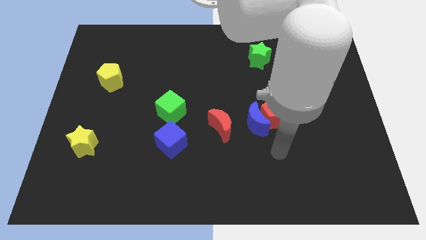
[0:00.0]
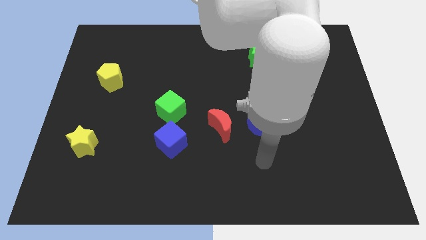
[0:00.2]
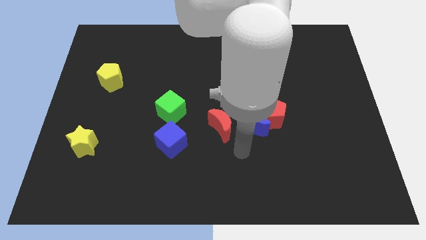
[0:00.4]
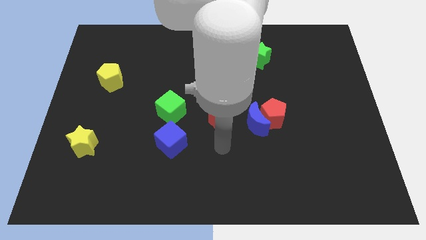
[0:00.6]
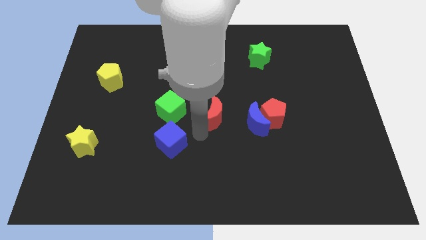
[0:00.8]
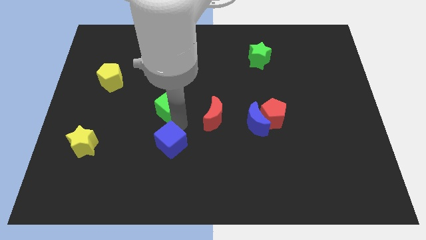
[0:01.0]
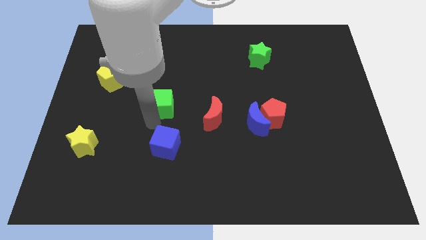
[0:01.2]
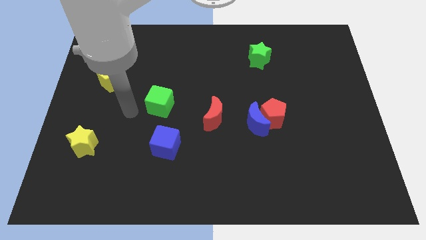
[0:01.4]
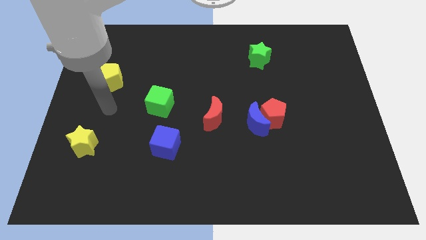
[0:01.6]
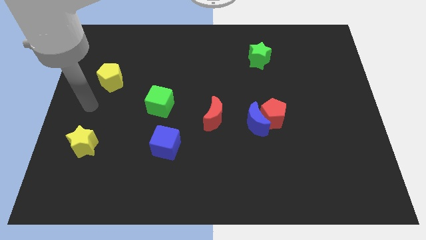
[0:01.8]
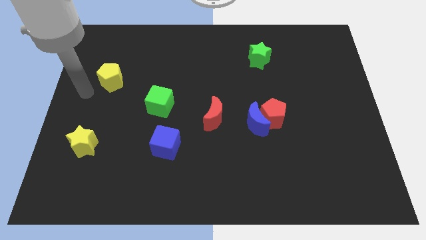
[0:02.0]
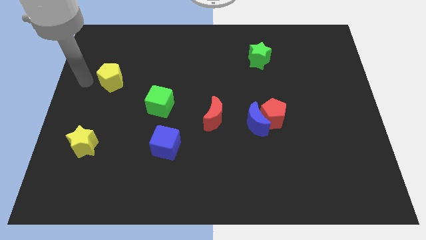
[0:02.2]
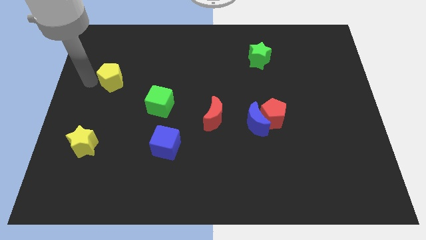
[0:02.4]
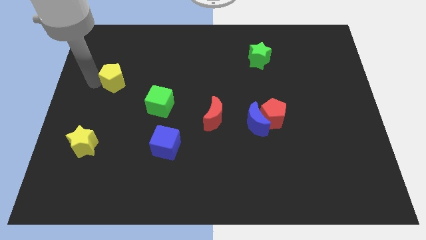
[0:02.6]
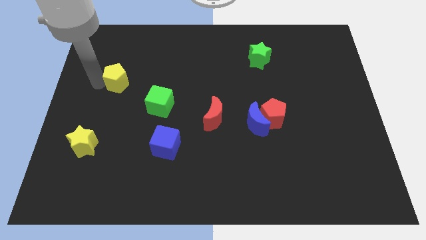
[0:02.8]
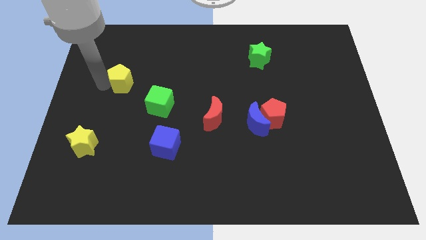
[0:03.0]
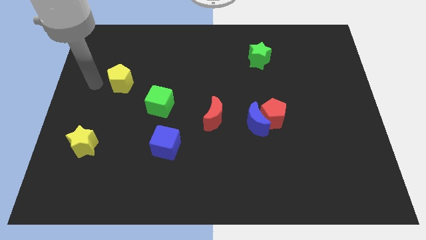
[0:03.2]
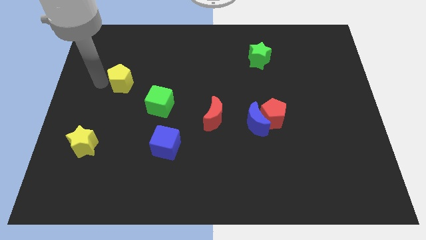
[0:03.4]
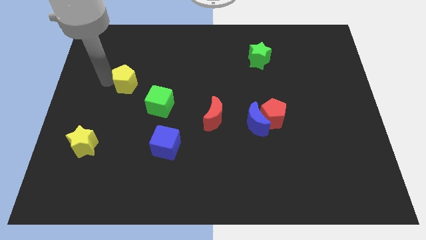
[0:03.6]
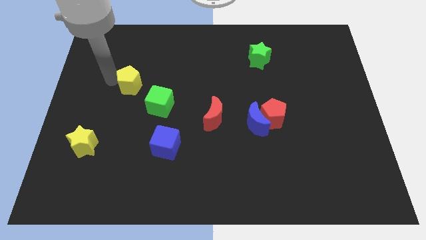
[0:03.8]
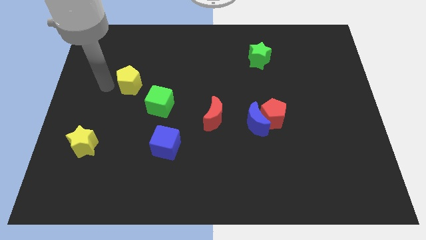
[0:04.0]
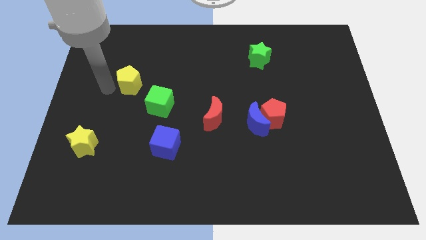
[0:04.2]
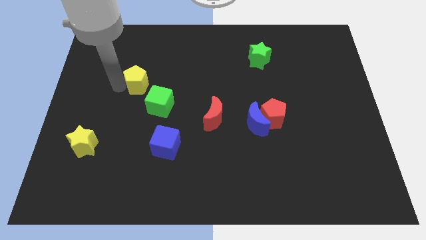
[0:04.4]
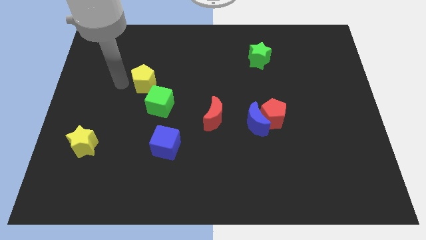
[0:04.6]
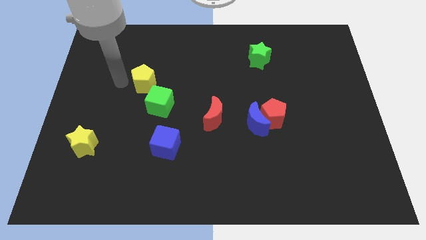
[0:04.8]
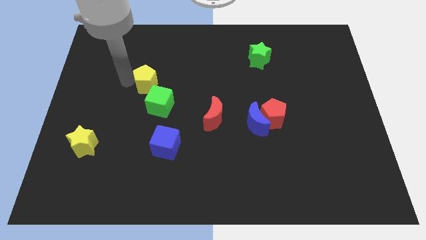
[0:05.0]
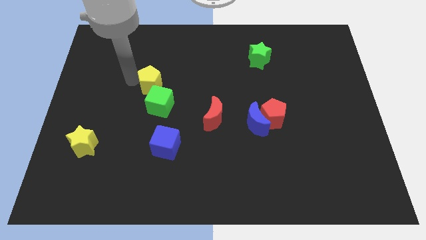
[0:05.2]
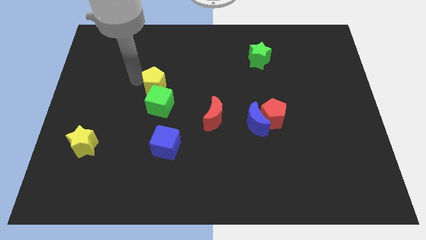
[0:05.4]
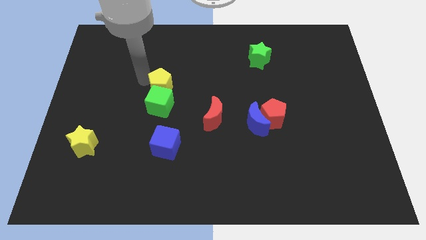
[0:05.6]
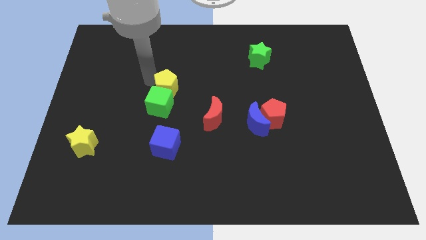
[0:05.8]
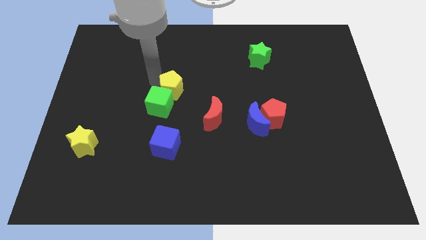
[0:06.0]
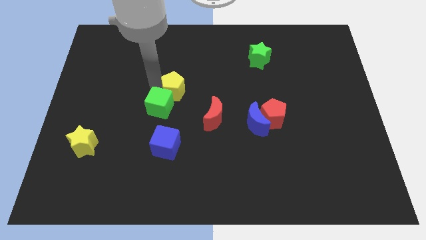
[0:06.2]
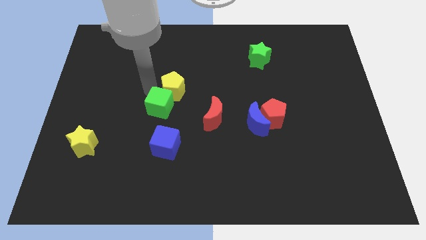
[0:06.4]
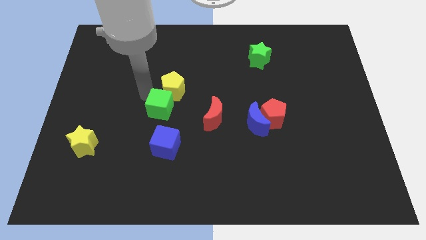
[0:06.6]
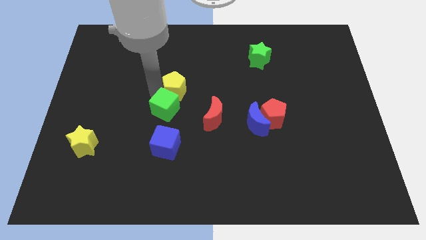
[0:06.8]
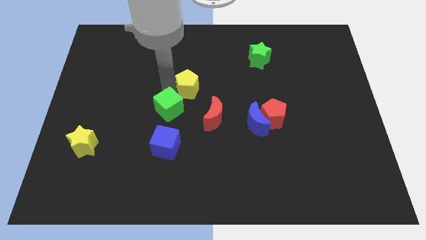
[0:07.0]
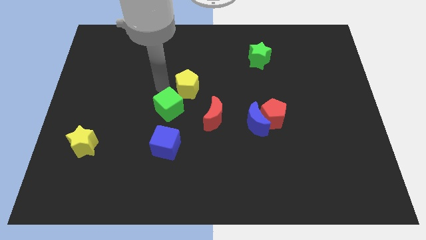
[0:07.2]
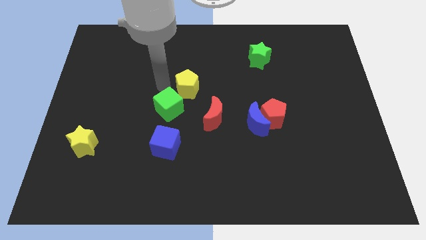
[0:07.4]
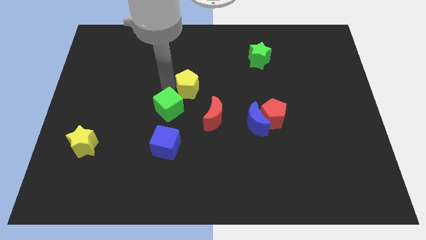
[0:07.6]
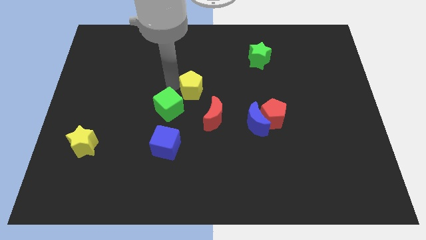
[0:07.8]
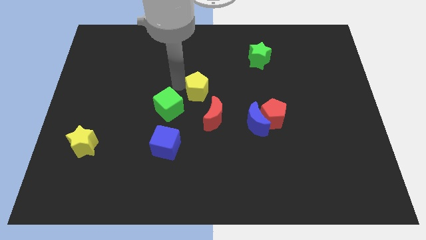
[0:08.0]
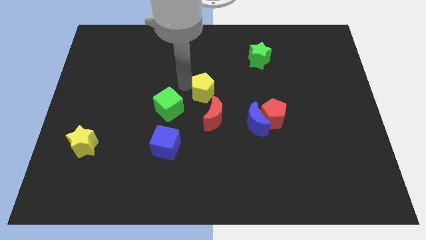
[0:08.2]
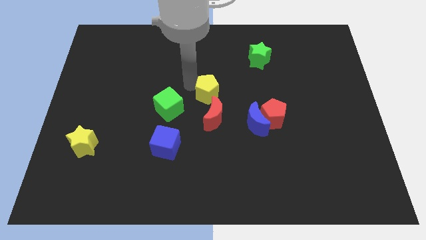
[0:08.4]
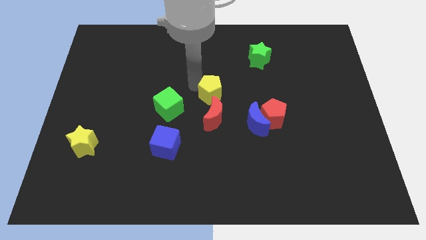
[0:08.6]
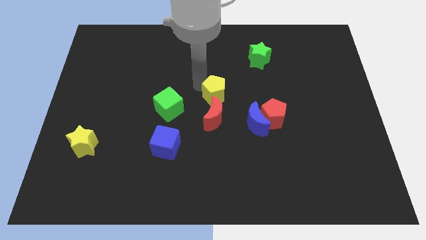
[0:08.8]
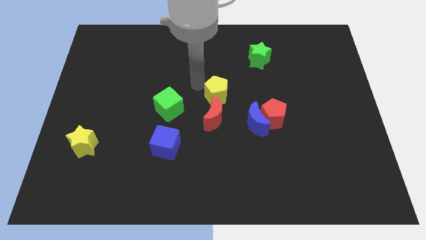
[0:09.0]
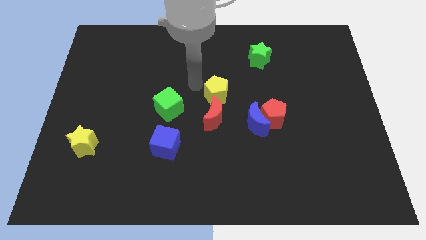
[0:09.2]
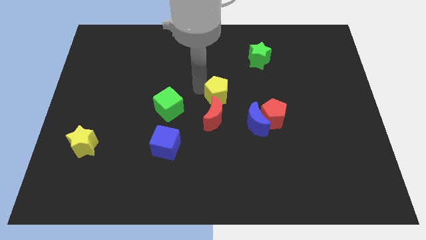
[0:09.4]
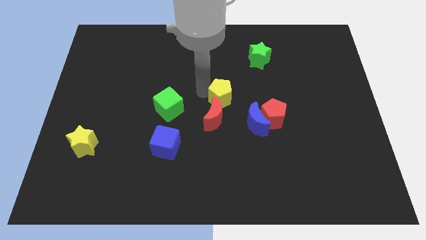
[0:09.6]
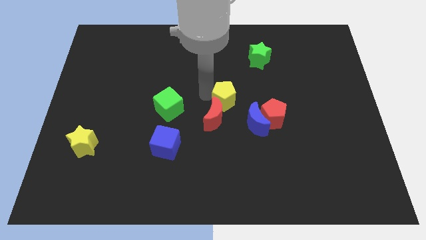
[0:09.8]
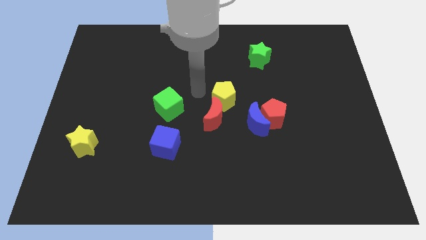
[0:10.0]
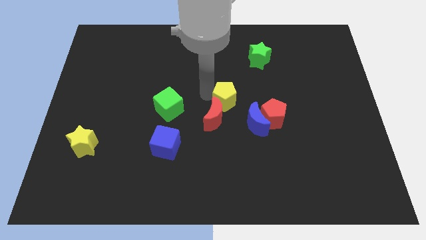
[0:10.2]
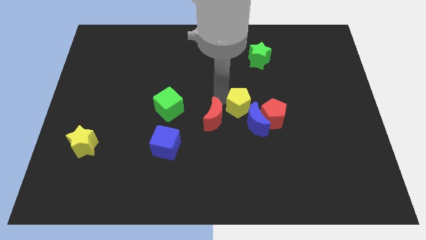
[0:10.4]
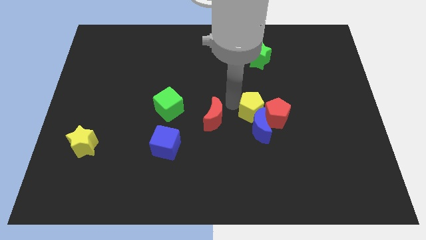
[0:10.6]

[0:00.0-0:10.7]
push the yellow pentagon to the red pentagon

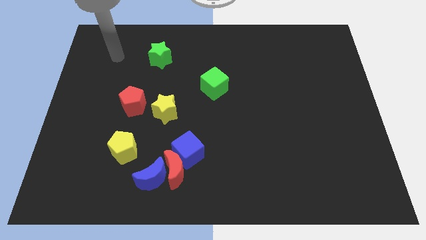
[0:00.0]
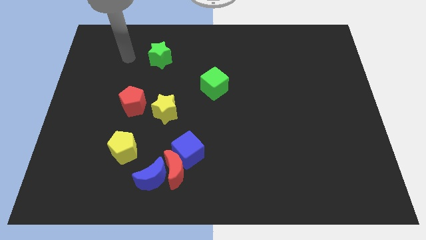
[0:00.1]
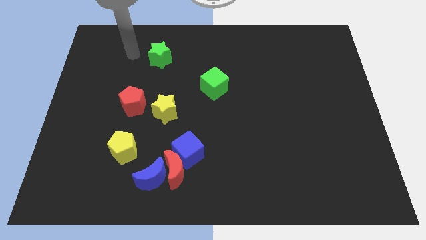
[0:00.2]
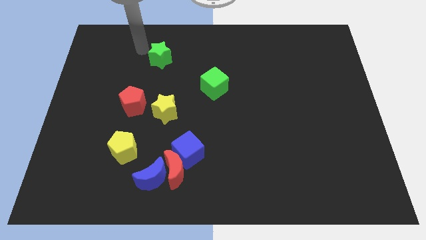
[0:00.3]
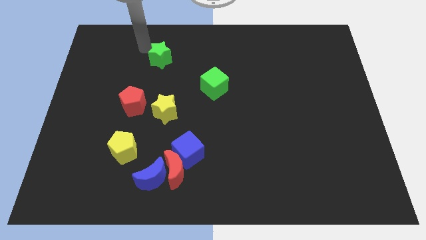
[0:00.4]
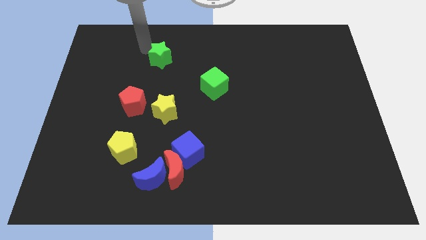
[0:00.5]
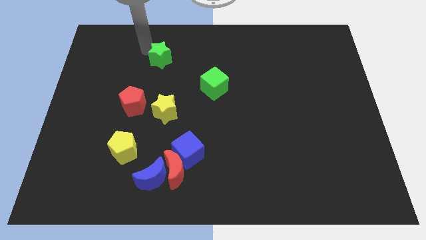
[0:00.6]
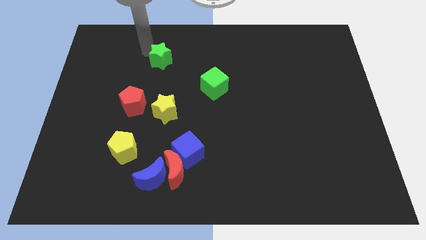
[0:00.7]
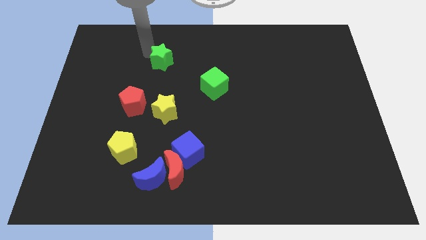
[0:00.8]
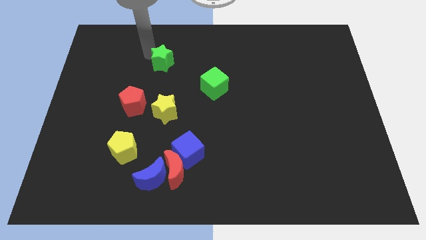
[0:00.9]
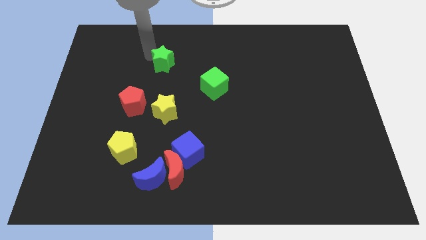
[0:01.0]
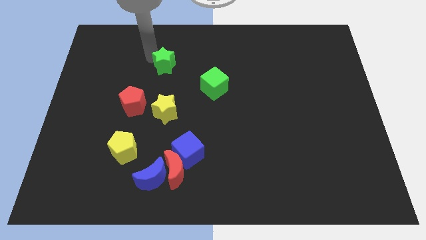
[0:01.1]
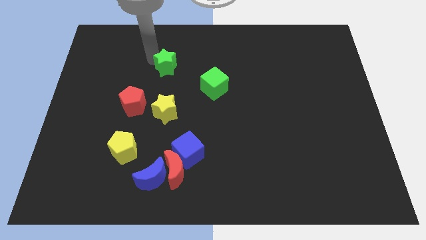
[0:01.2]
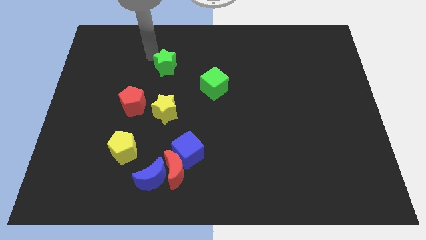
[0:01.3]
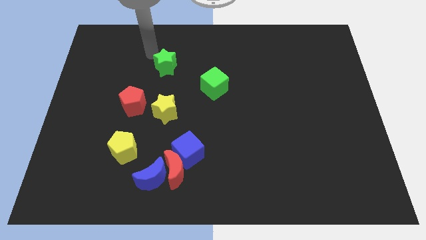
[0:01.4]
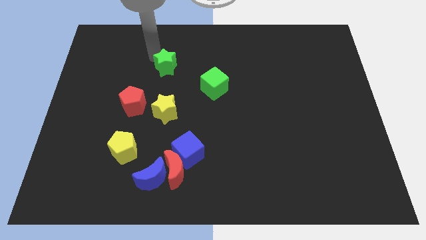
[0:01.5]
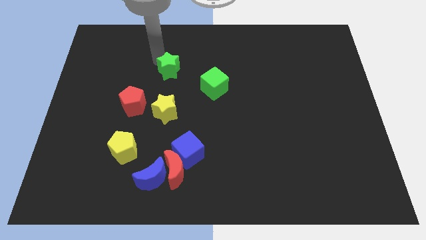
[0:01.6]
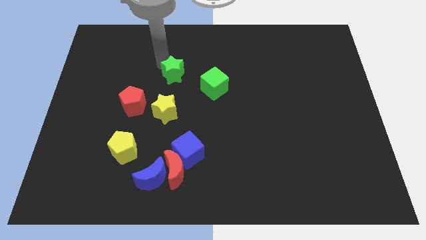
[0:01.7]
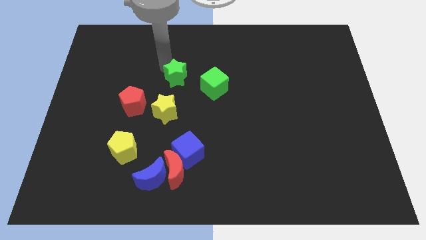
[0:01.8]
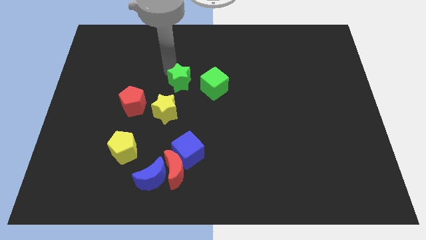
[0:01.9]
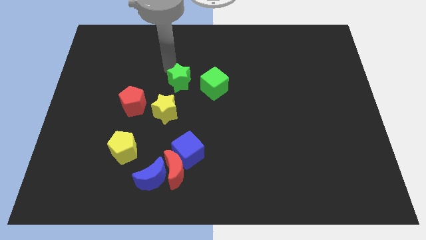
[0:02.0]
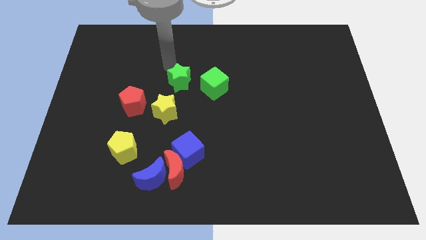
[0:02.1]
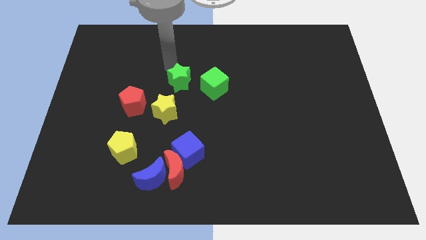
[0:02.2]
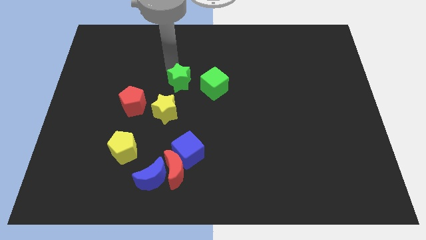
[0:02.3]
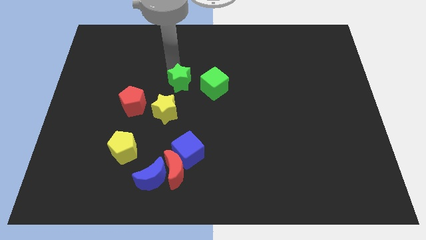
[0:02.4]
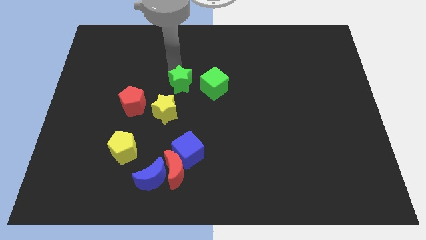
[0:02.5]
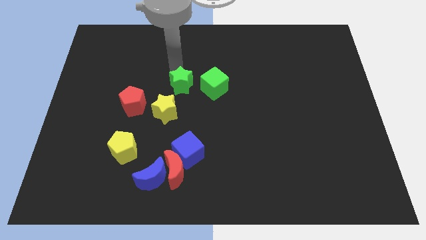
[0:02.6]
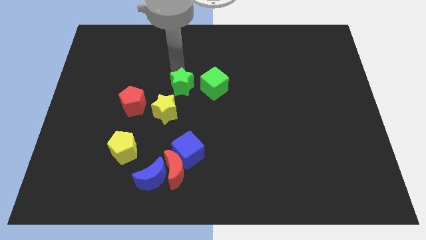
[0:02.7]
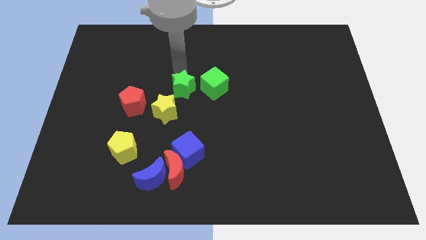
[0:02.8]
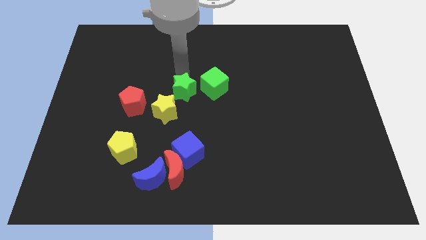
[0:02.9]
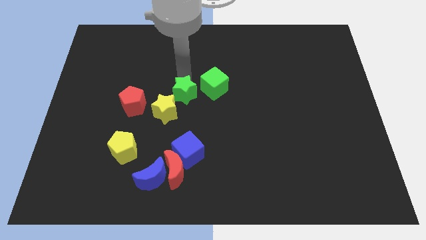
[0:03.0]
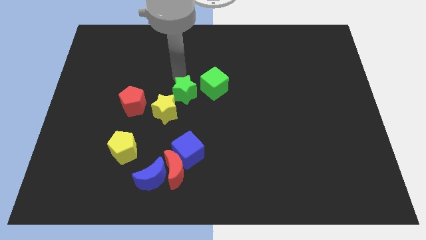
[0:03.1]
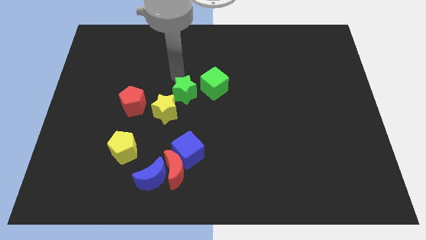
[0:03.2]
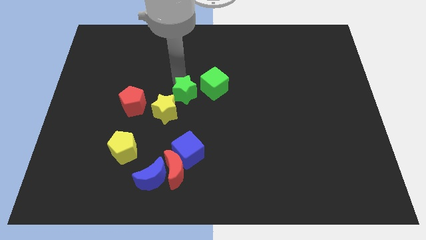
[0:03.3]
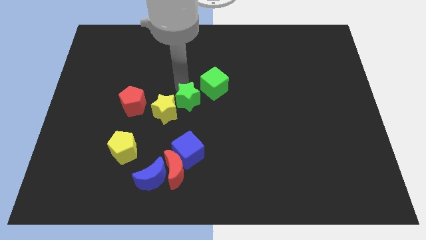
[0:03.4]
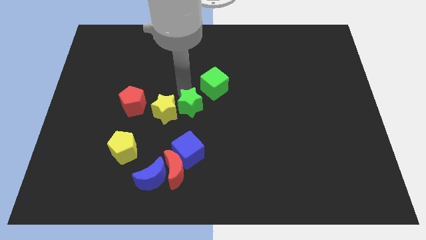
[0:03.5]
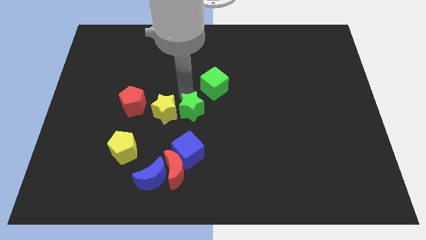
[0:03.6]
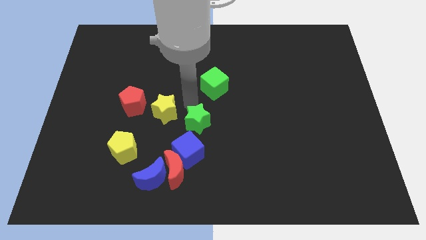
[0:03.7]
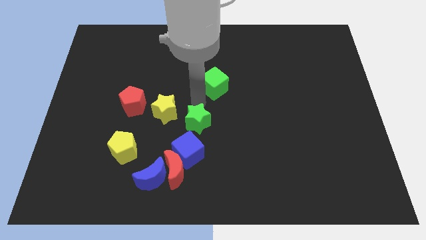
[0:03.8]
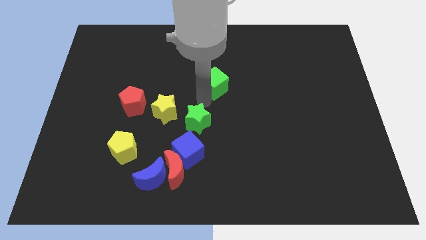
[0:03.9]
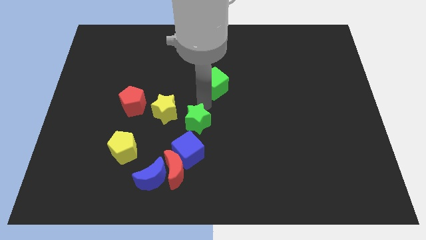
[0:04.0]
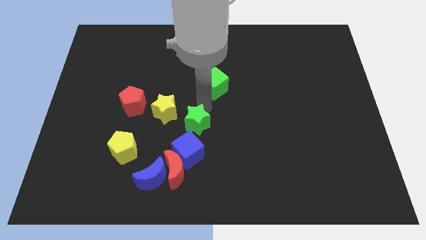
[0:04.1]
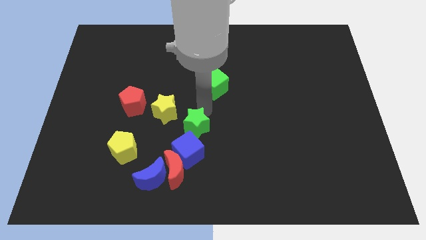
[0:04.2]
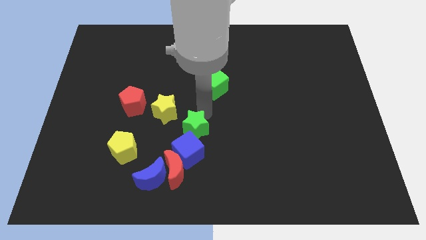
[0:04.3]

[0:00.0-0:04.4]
move the green star close to the blue cube
